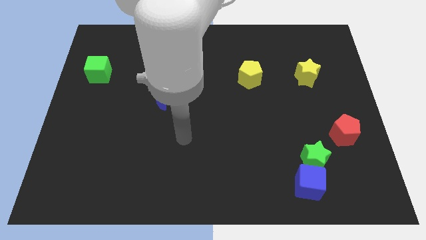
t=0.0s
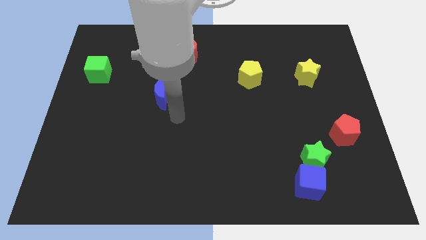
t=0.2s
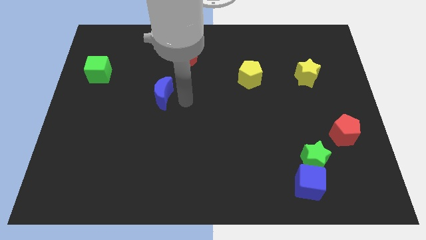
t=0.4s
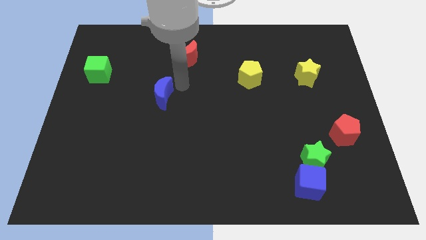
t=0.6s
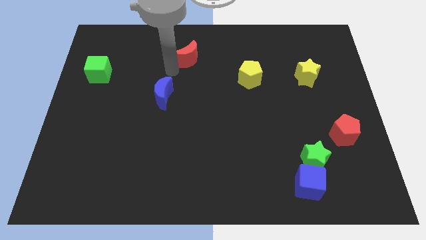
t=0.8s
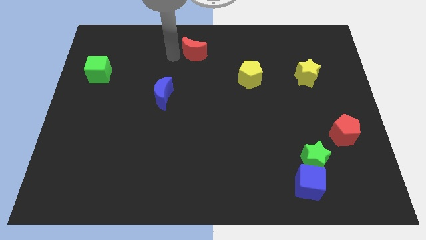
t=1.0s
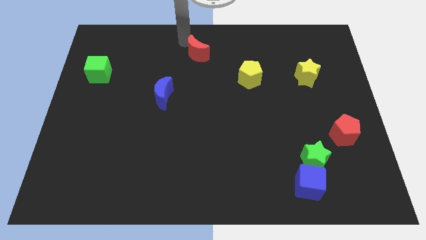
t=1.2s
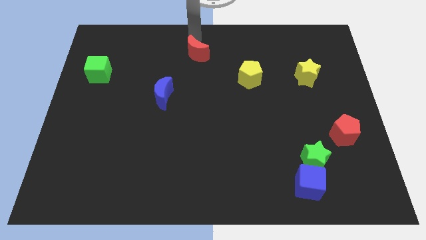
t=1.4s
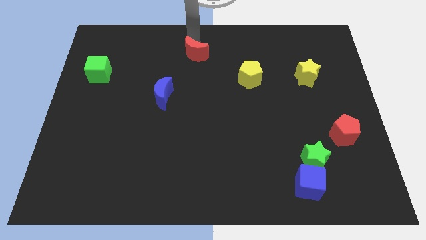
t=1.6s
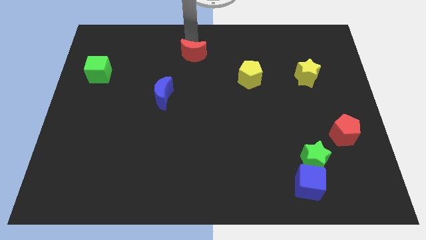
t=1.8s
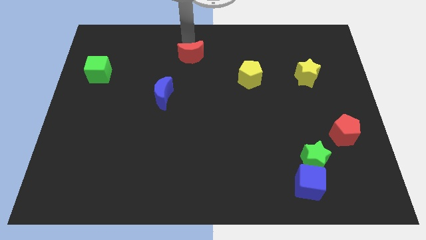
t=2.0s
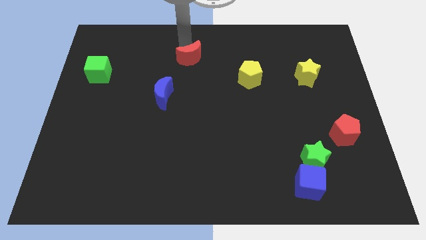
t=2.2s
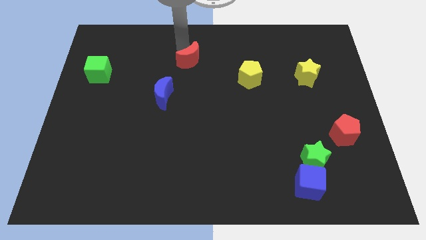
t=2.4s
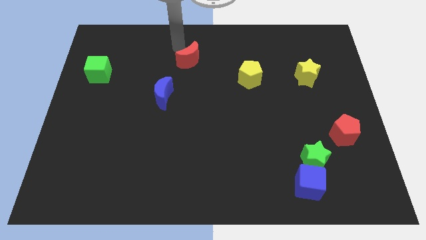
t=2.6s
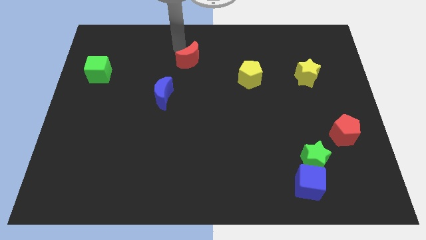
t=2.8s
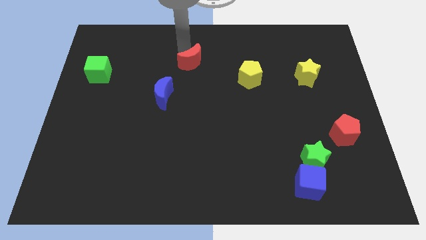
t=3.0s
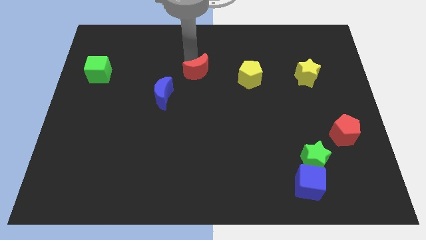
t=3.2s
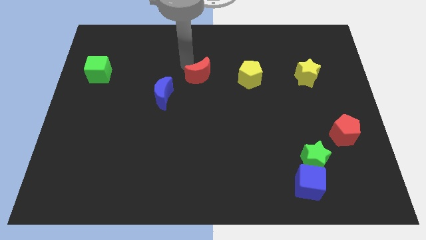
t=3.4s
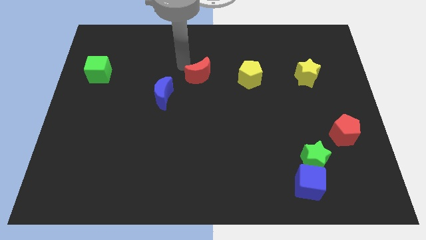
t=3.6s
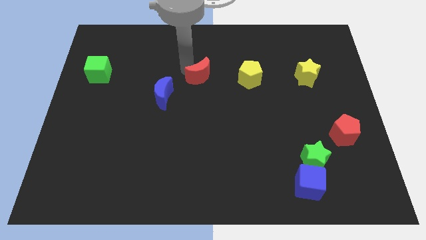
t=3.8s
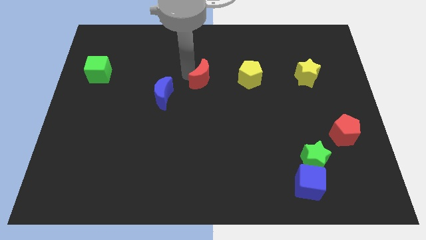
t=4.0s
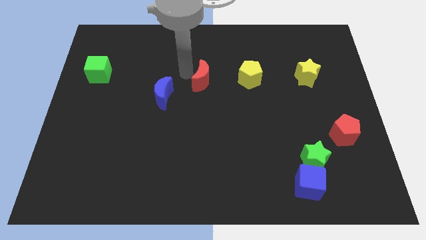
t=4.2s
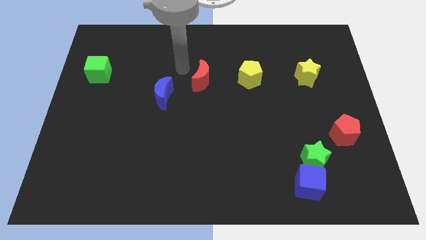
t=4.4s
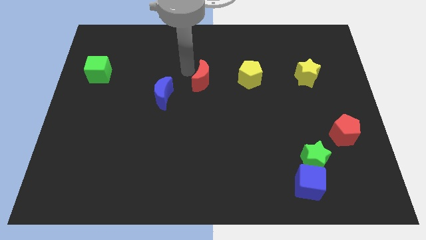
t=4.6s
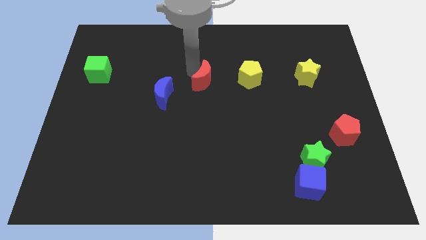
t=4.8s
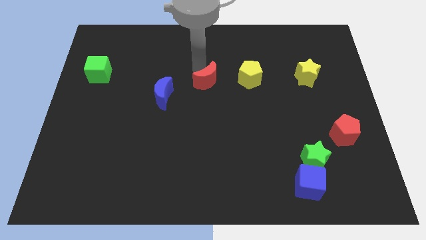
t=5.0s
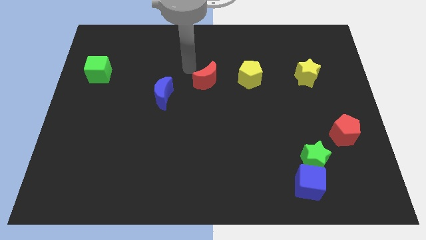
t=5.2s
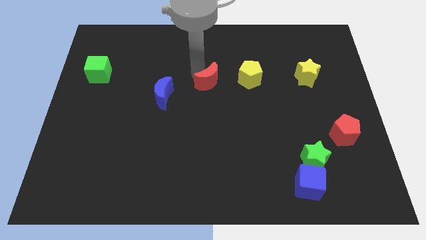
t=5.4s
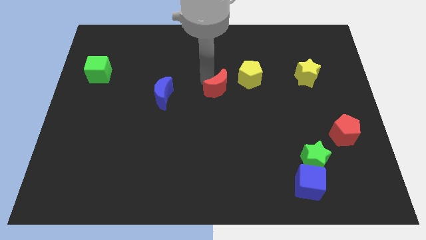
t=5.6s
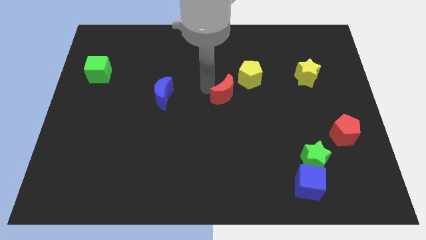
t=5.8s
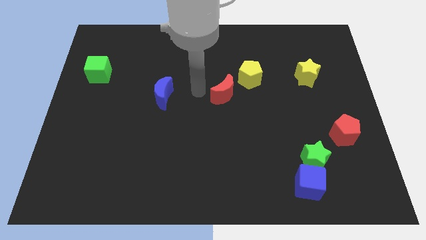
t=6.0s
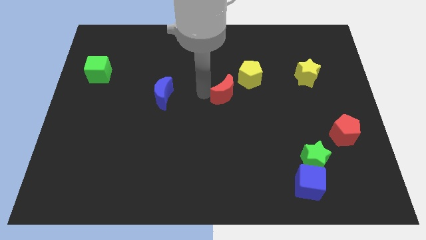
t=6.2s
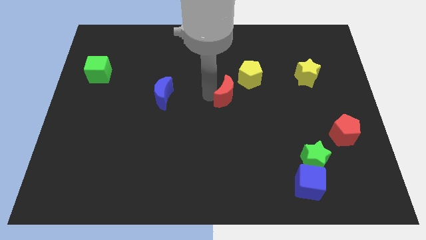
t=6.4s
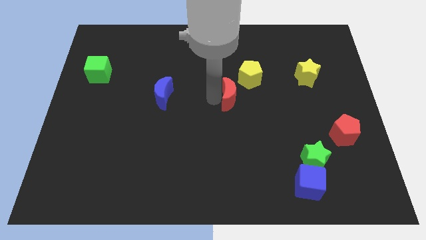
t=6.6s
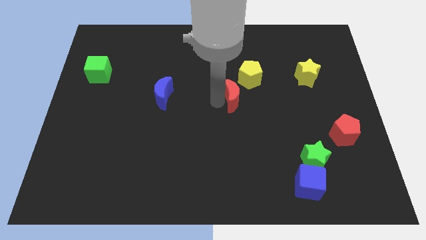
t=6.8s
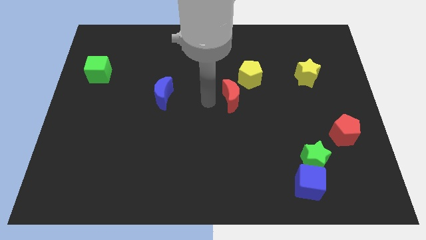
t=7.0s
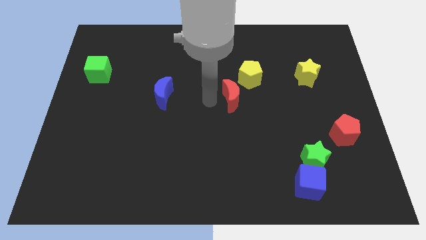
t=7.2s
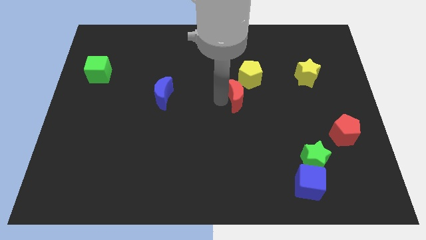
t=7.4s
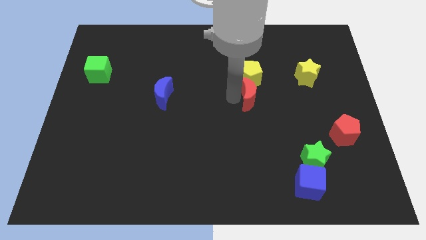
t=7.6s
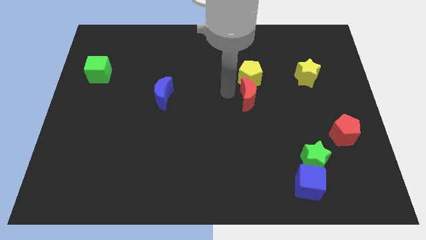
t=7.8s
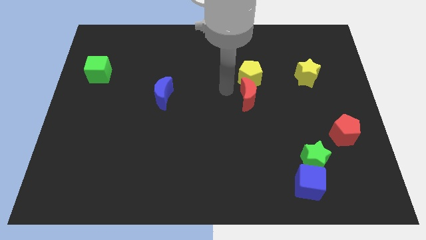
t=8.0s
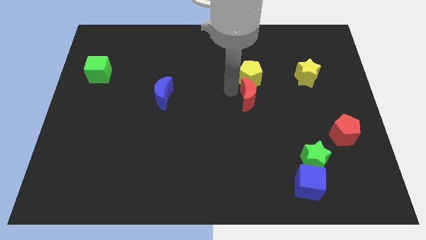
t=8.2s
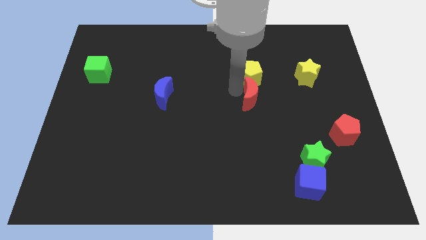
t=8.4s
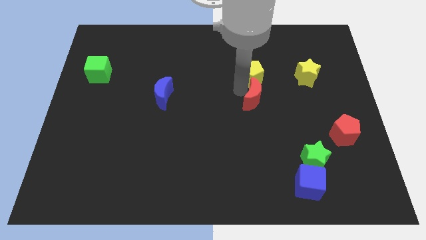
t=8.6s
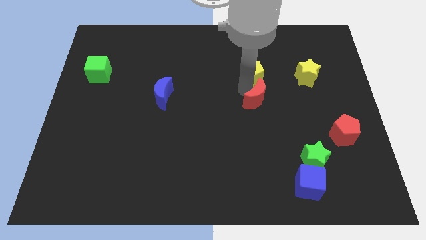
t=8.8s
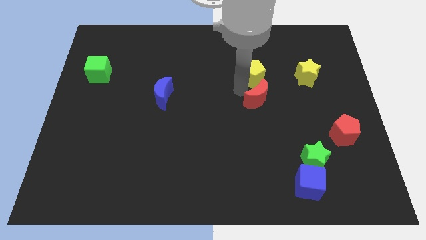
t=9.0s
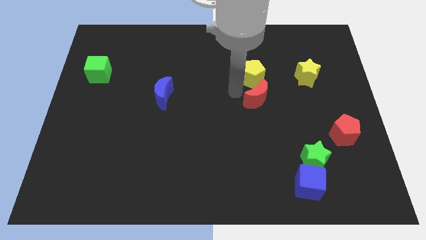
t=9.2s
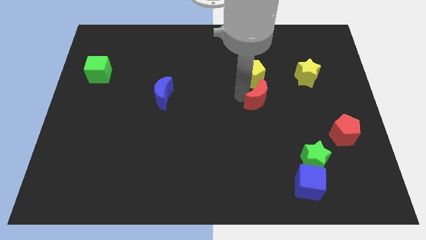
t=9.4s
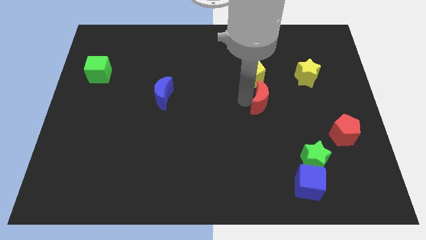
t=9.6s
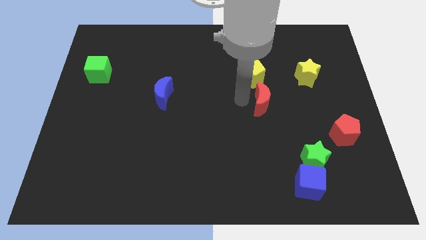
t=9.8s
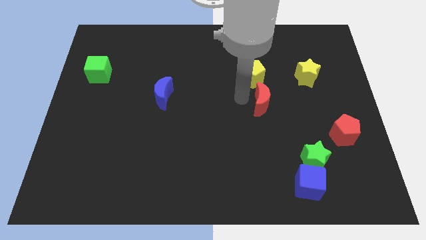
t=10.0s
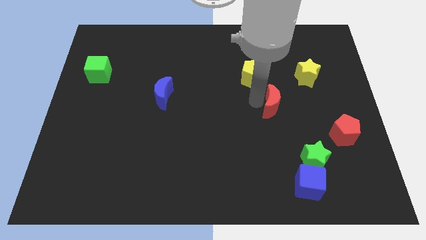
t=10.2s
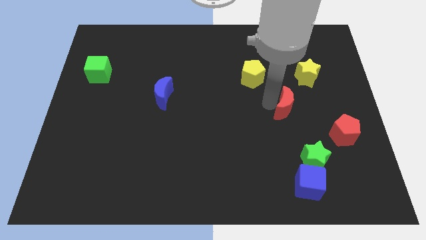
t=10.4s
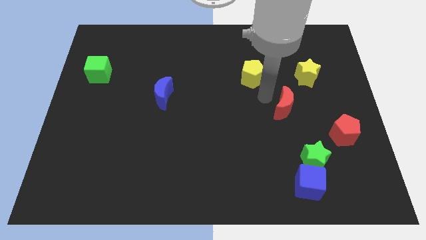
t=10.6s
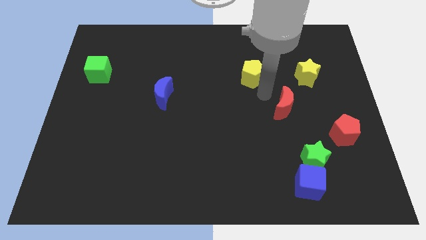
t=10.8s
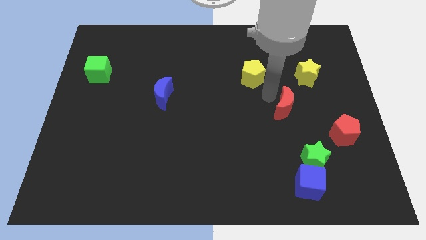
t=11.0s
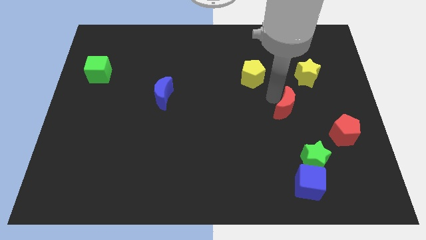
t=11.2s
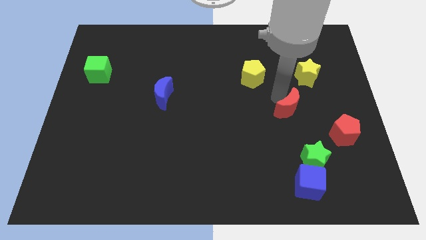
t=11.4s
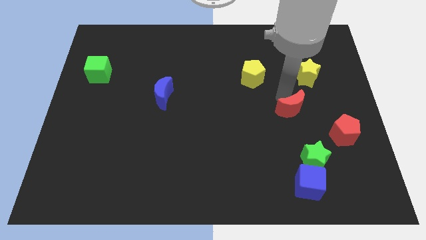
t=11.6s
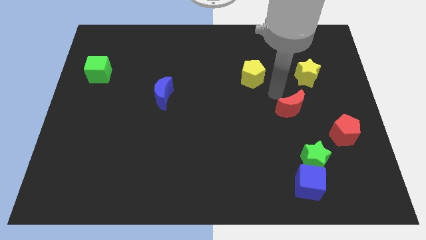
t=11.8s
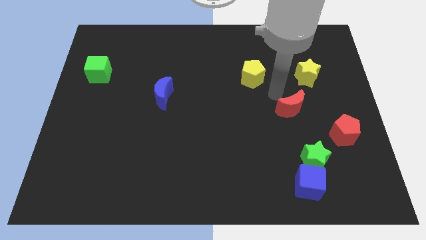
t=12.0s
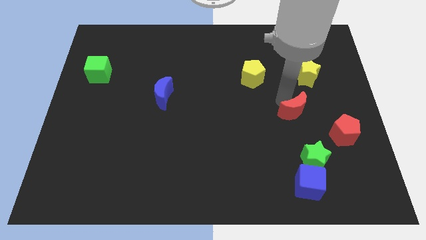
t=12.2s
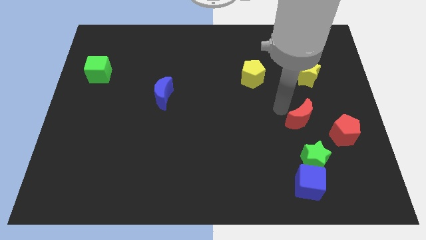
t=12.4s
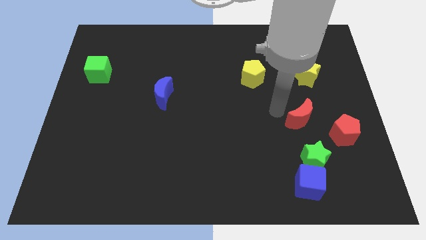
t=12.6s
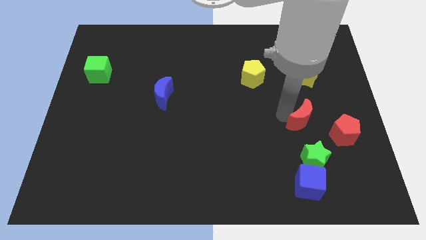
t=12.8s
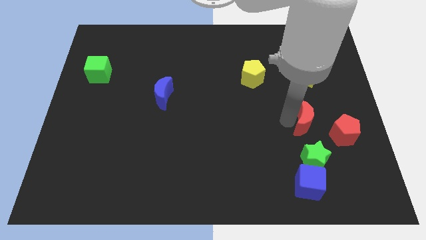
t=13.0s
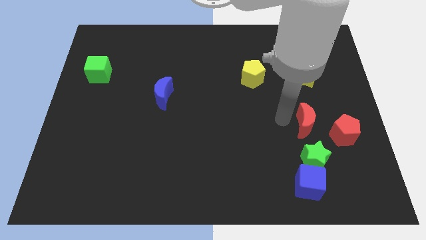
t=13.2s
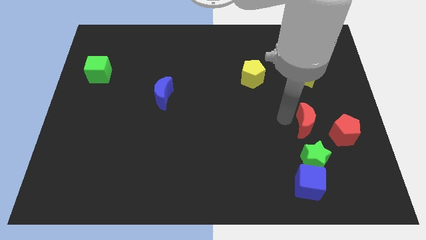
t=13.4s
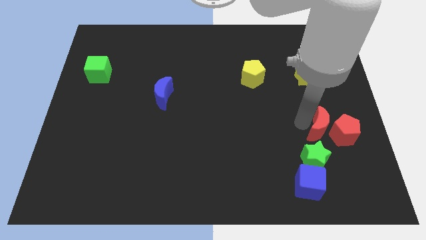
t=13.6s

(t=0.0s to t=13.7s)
push the red moon to the red pentagon
